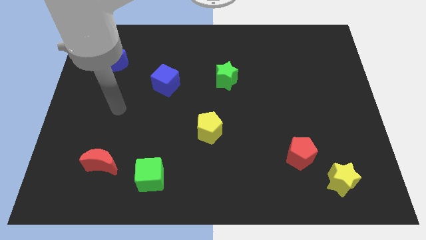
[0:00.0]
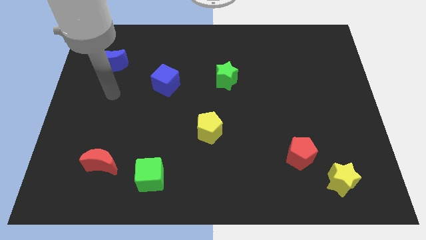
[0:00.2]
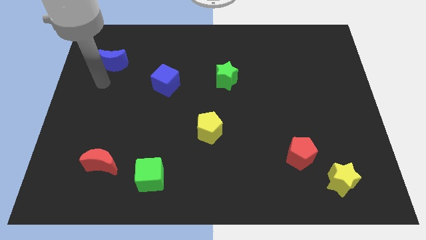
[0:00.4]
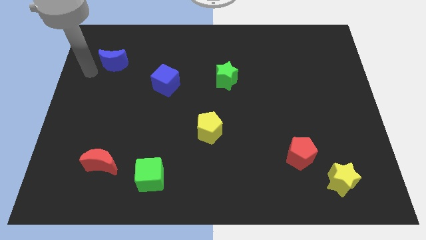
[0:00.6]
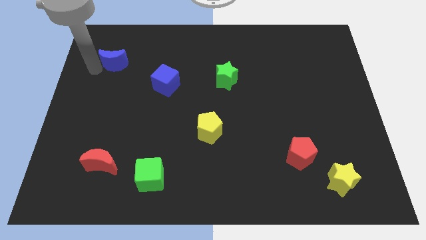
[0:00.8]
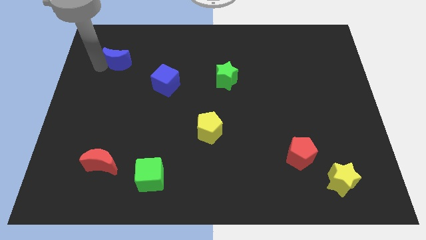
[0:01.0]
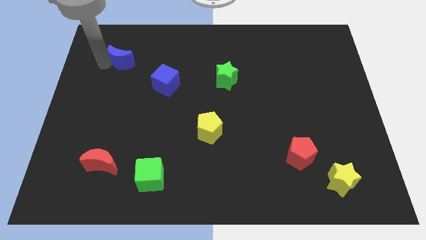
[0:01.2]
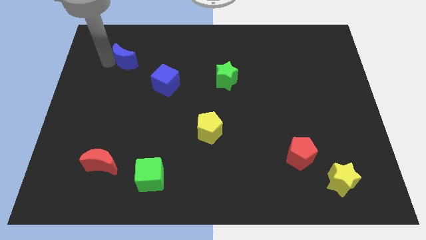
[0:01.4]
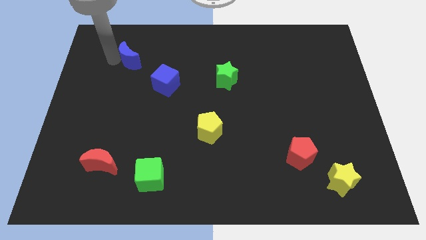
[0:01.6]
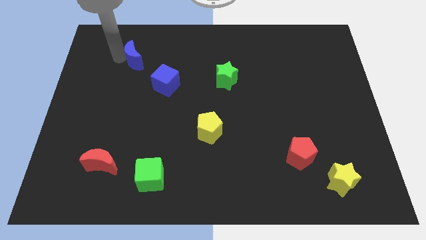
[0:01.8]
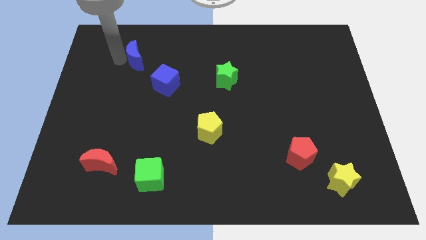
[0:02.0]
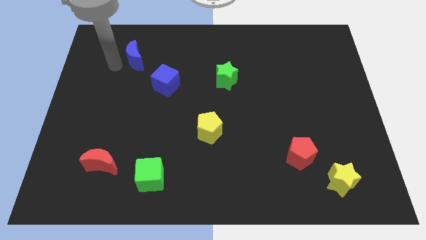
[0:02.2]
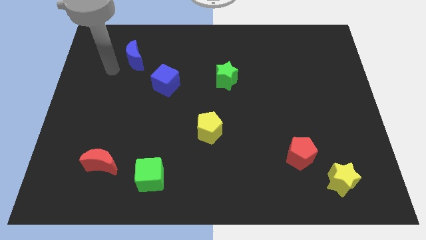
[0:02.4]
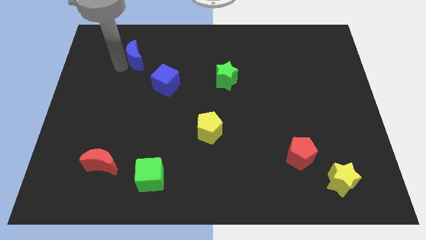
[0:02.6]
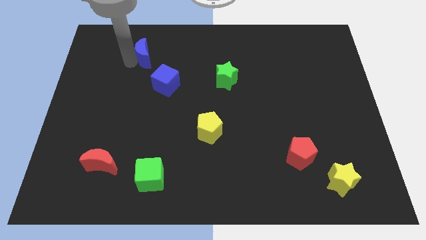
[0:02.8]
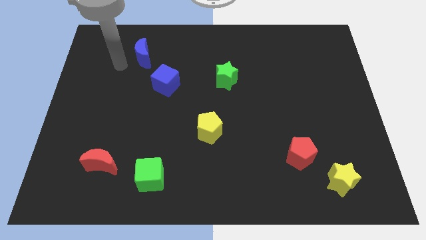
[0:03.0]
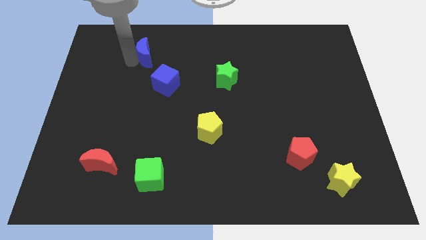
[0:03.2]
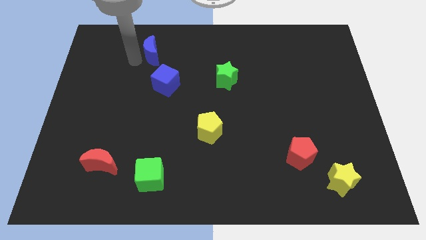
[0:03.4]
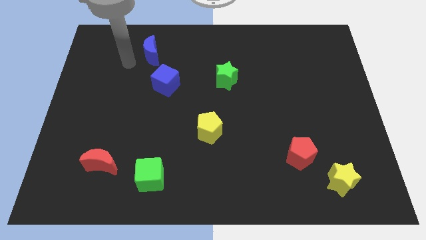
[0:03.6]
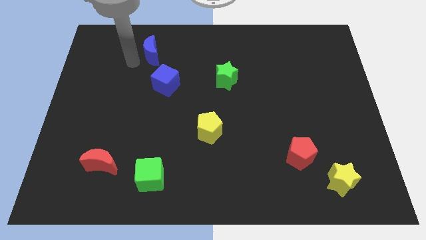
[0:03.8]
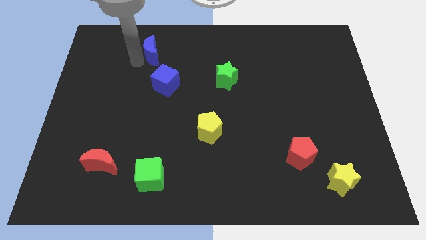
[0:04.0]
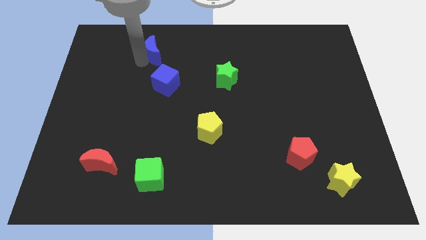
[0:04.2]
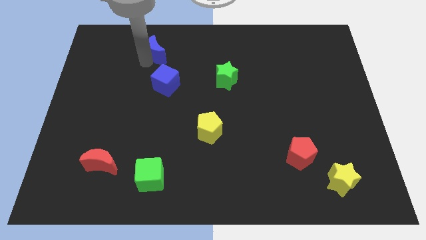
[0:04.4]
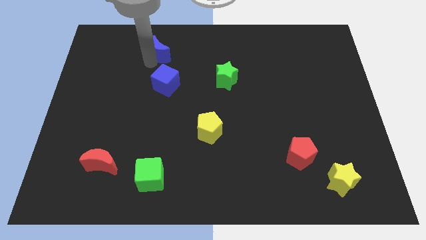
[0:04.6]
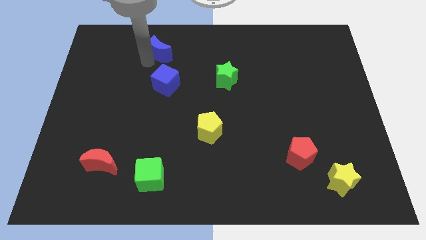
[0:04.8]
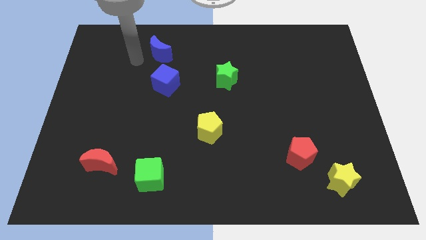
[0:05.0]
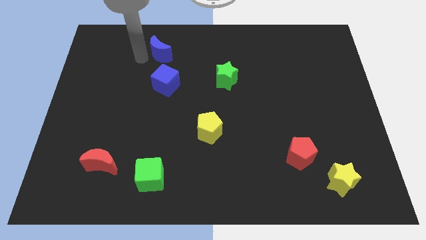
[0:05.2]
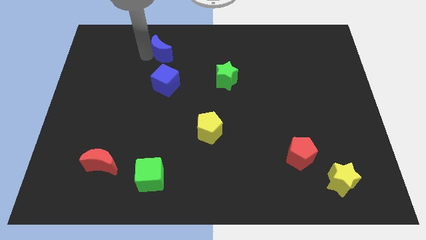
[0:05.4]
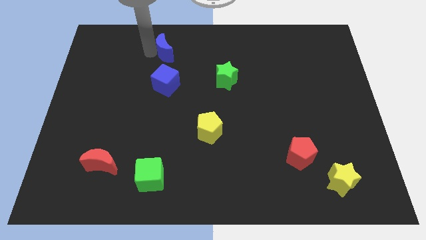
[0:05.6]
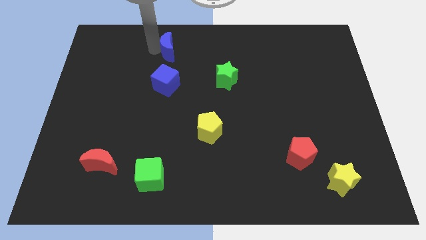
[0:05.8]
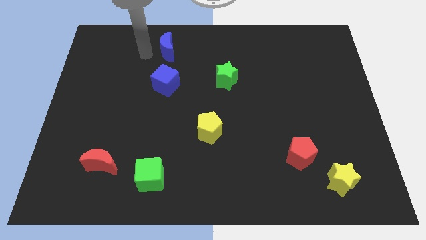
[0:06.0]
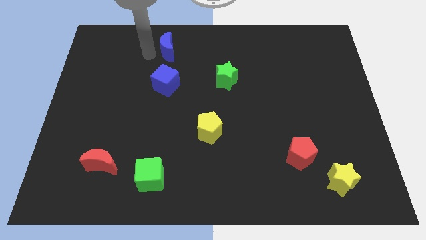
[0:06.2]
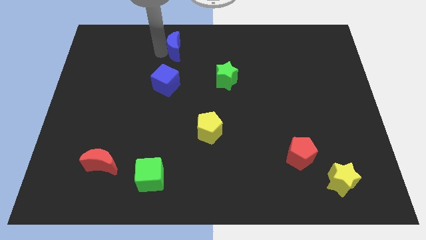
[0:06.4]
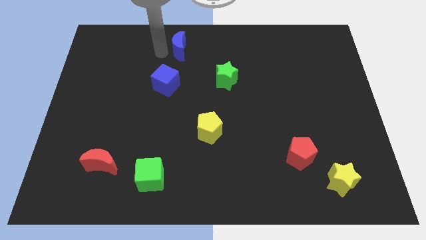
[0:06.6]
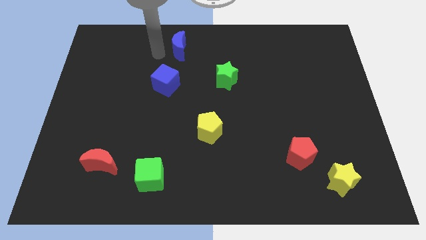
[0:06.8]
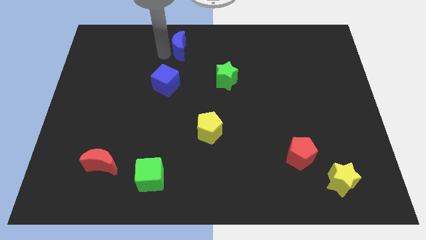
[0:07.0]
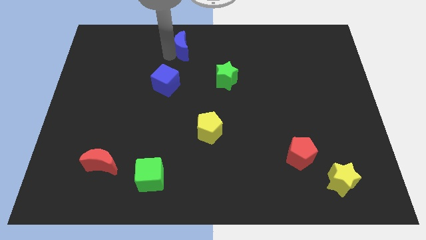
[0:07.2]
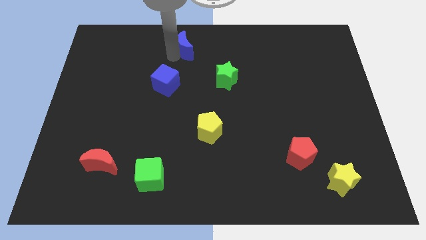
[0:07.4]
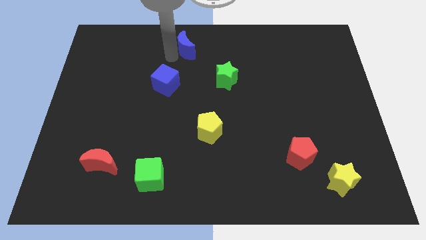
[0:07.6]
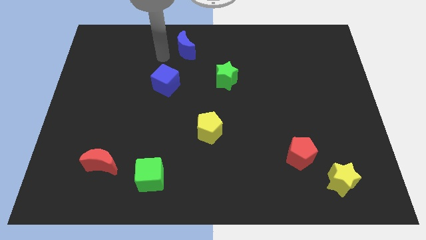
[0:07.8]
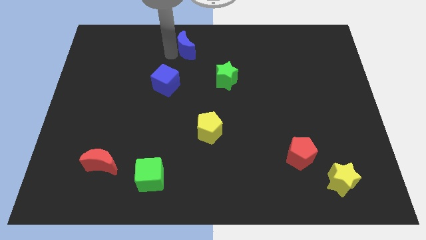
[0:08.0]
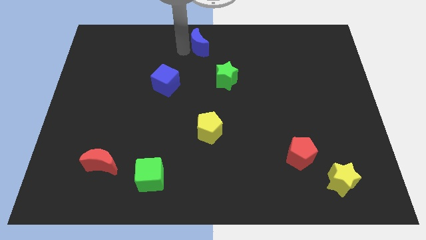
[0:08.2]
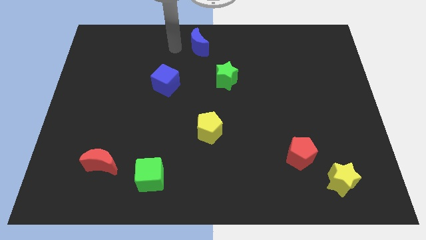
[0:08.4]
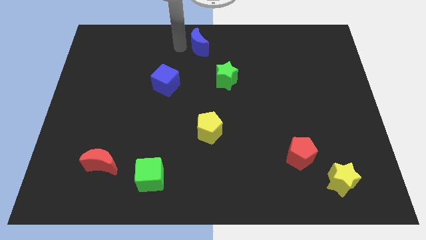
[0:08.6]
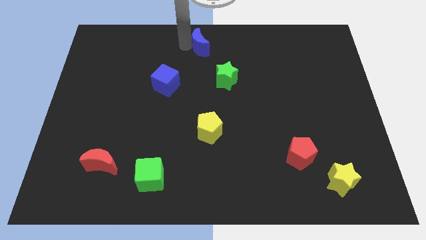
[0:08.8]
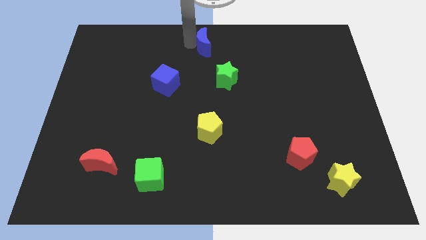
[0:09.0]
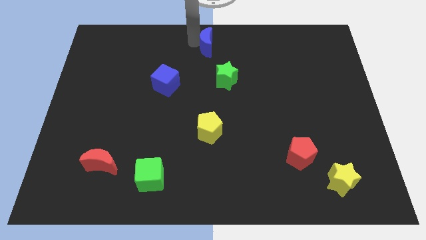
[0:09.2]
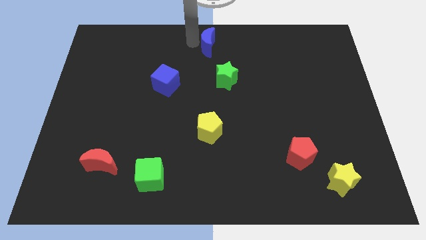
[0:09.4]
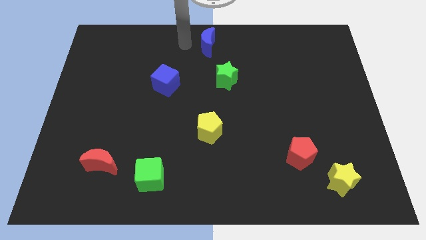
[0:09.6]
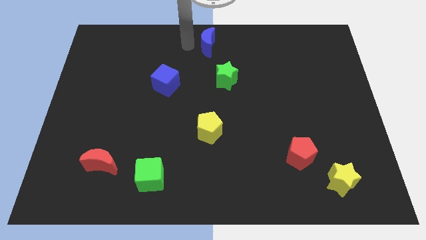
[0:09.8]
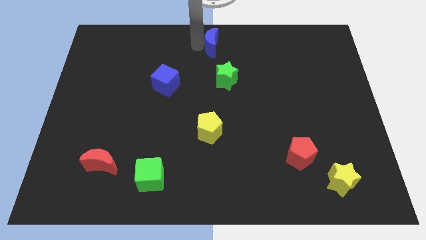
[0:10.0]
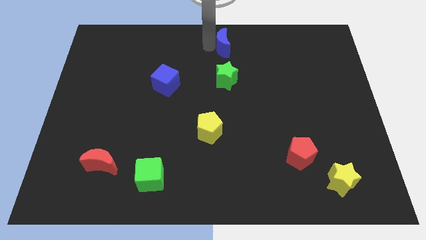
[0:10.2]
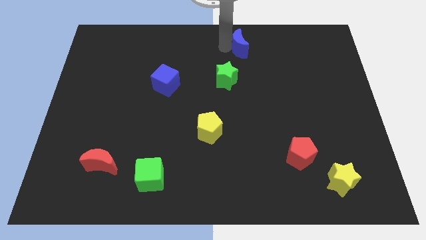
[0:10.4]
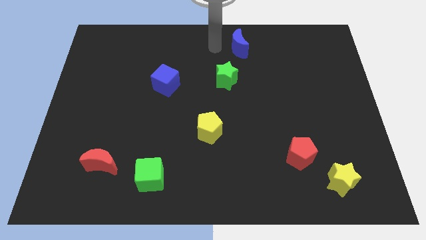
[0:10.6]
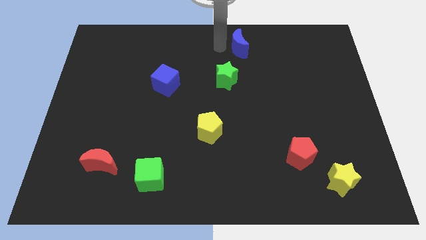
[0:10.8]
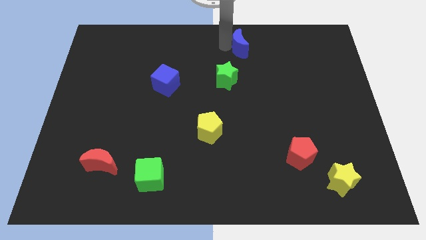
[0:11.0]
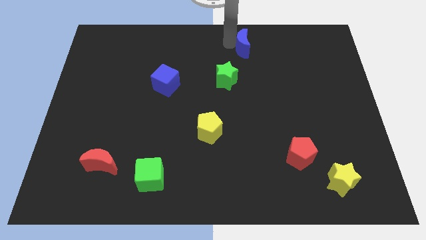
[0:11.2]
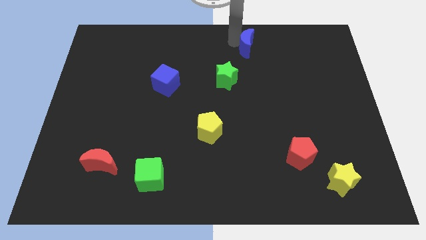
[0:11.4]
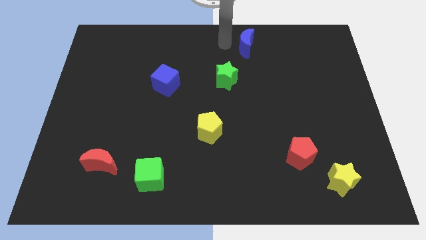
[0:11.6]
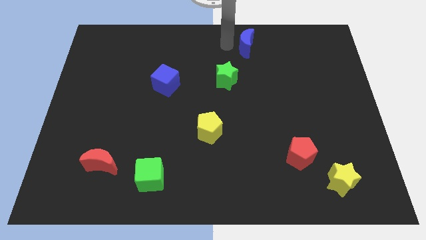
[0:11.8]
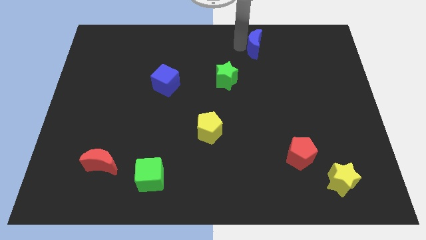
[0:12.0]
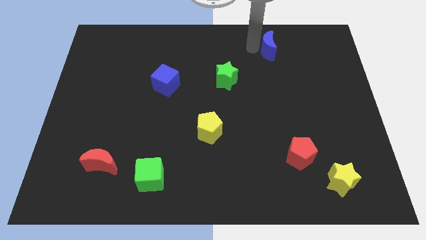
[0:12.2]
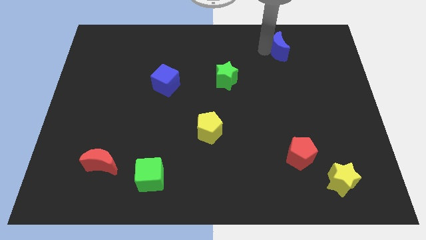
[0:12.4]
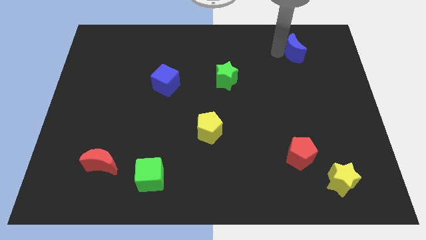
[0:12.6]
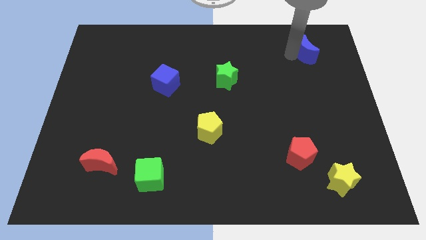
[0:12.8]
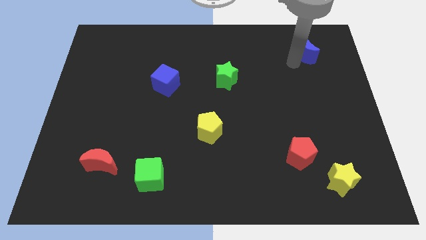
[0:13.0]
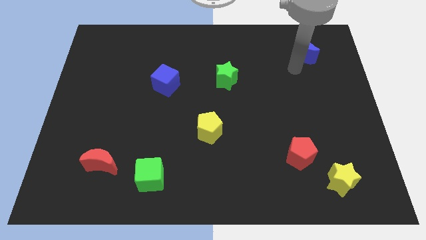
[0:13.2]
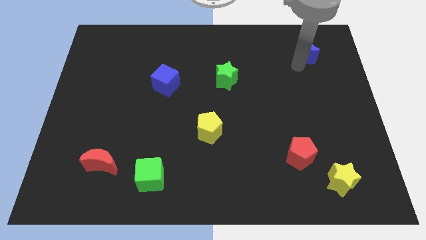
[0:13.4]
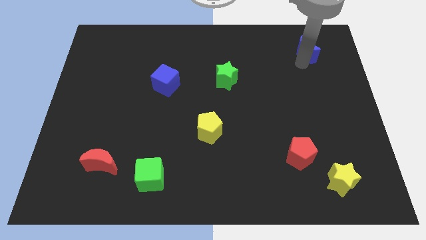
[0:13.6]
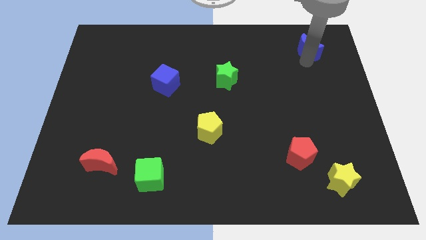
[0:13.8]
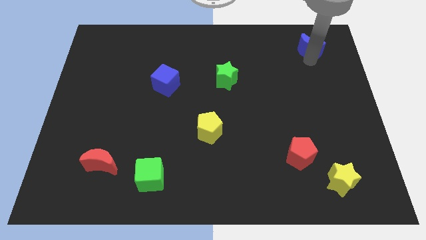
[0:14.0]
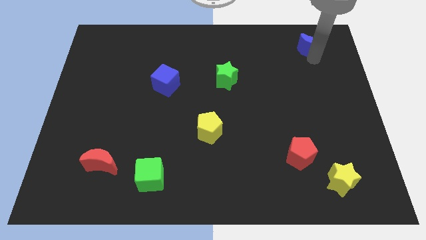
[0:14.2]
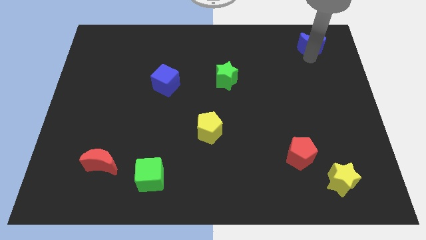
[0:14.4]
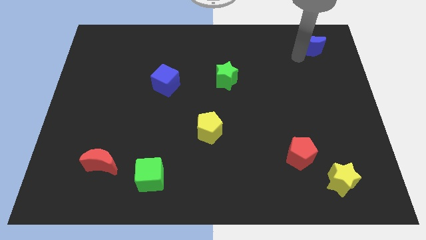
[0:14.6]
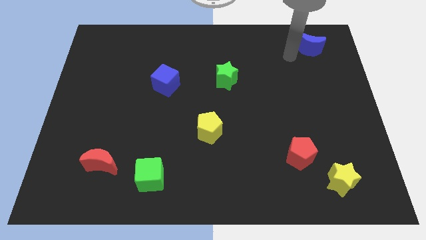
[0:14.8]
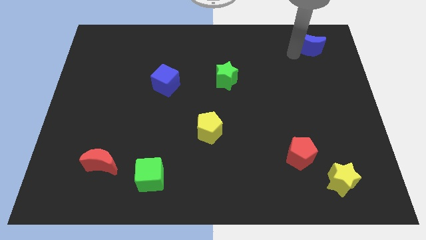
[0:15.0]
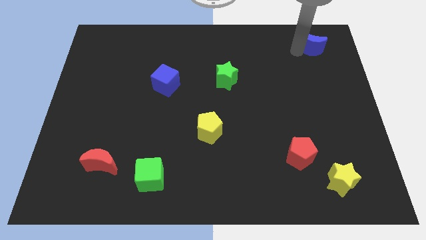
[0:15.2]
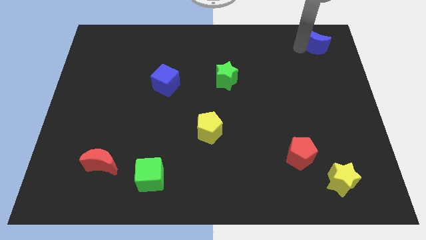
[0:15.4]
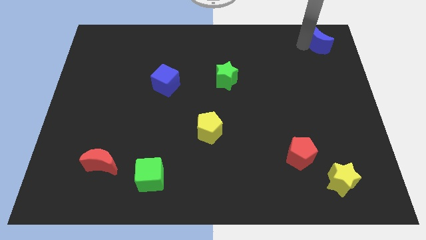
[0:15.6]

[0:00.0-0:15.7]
move the blue moon to the top right corner
